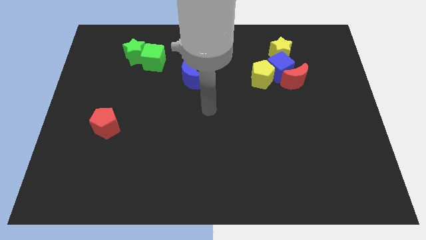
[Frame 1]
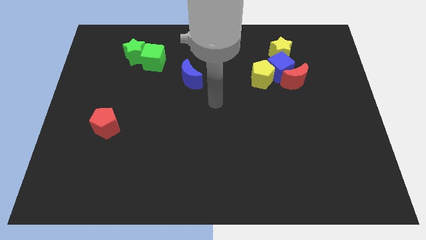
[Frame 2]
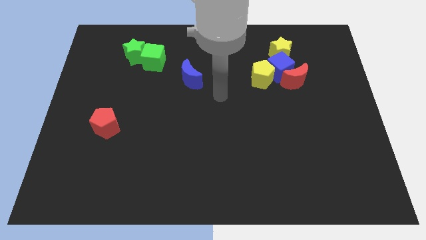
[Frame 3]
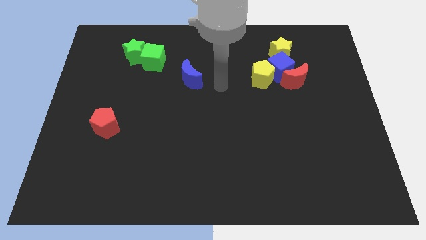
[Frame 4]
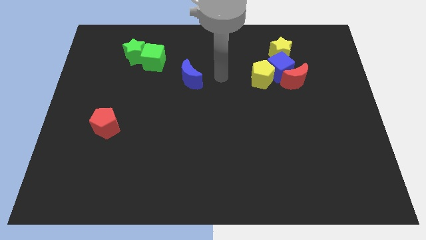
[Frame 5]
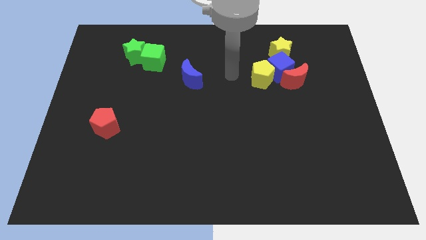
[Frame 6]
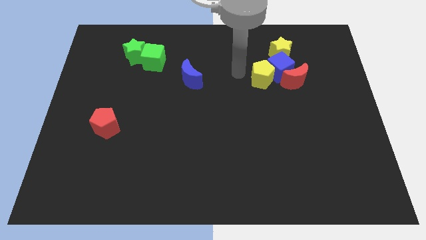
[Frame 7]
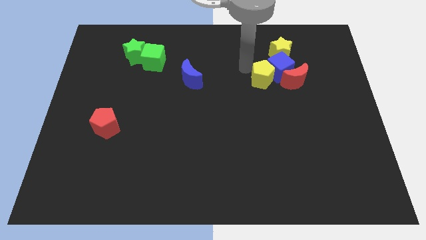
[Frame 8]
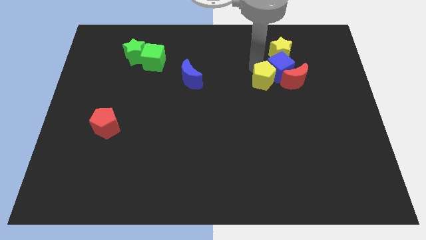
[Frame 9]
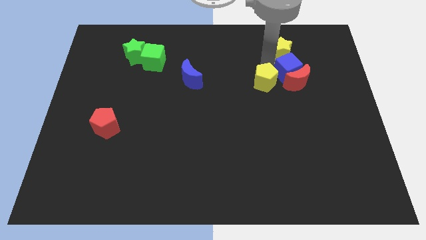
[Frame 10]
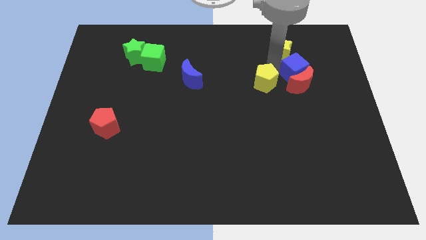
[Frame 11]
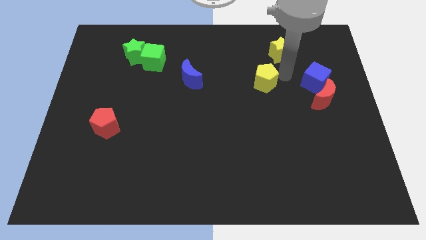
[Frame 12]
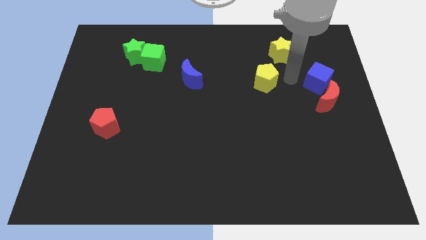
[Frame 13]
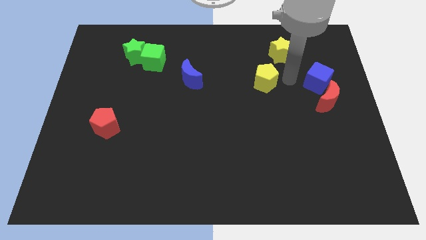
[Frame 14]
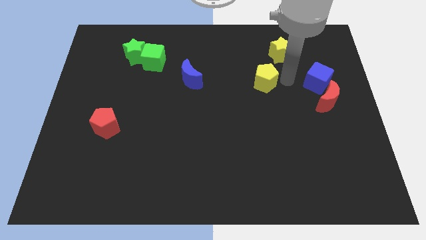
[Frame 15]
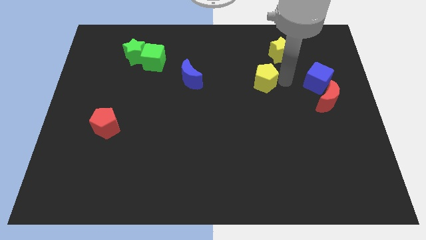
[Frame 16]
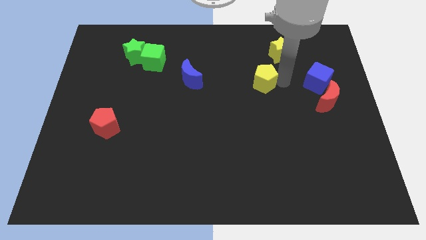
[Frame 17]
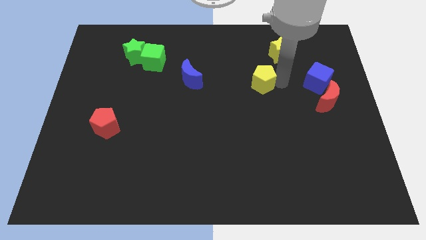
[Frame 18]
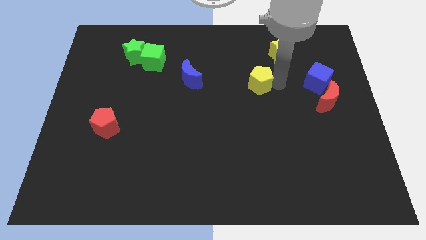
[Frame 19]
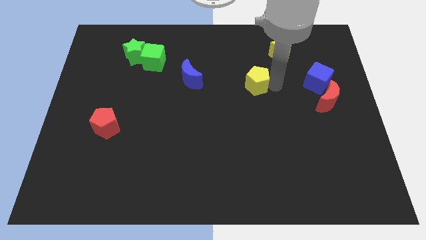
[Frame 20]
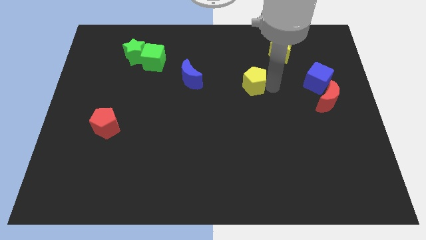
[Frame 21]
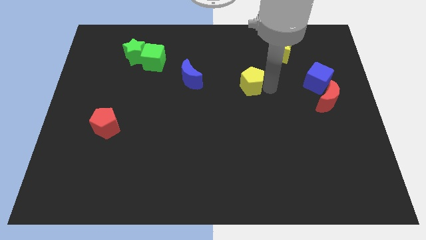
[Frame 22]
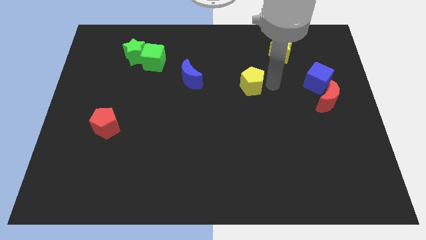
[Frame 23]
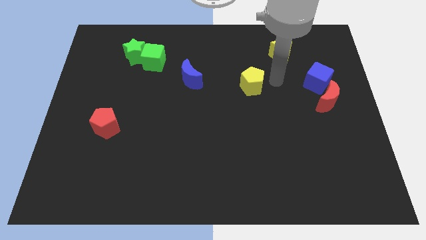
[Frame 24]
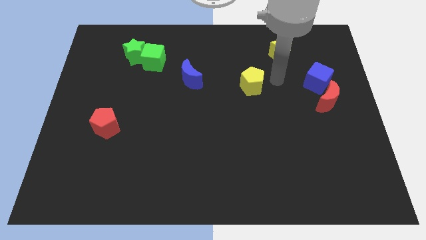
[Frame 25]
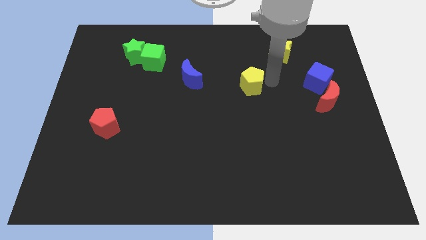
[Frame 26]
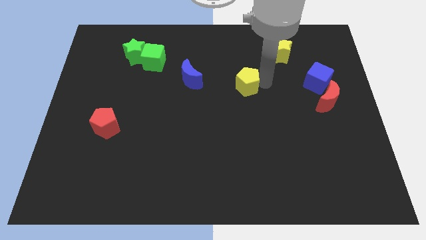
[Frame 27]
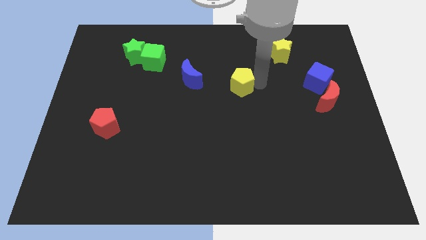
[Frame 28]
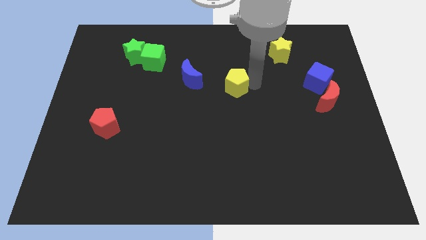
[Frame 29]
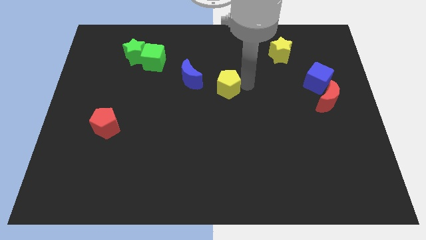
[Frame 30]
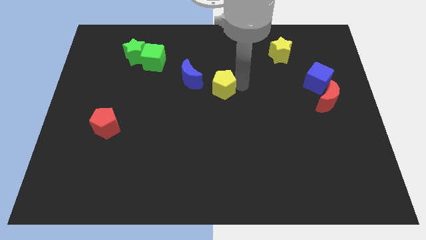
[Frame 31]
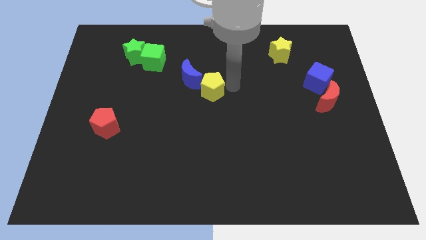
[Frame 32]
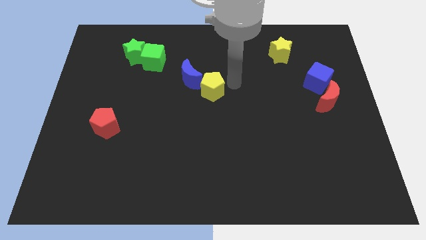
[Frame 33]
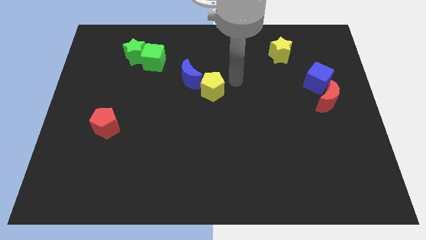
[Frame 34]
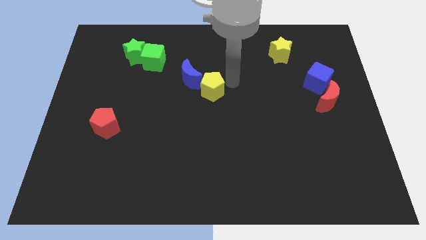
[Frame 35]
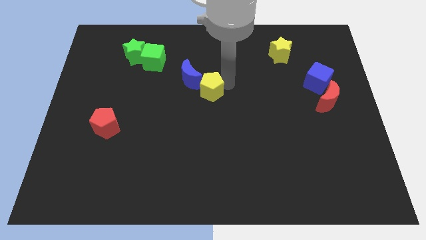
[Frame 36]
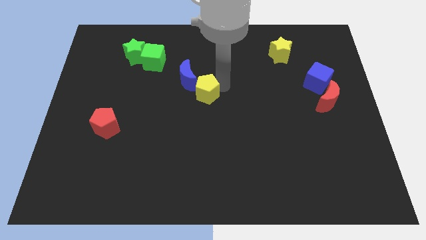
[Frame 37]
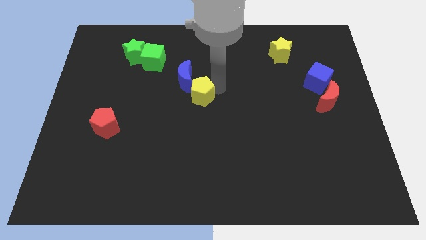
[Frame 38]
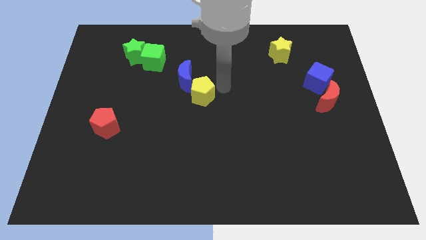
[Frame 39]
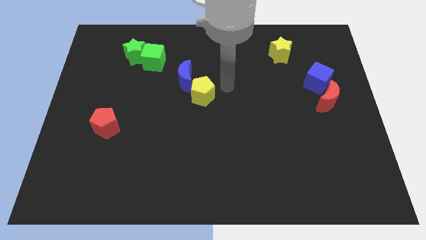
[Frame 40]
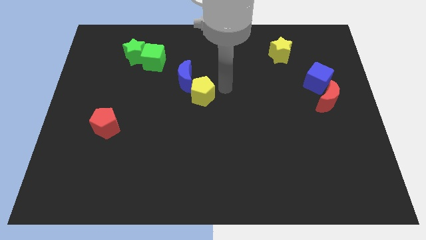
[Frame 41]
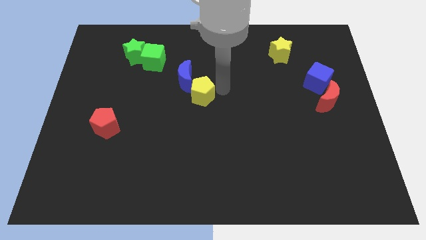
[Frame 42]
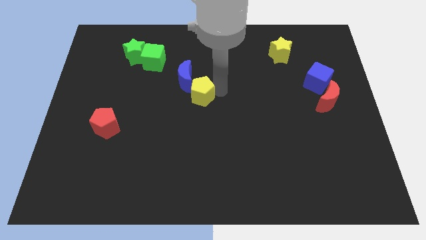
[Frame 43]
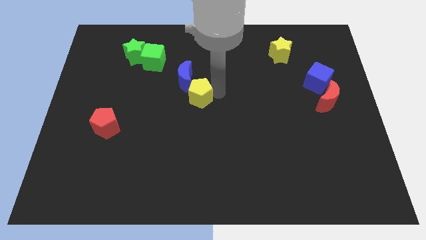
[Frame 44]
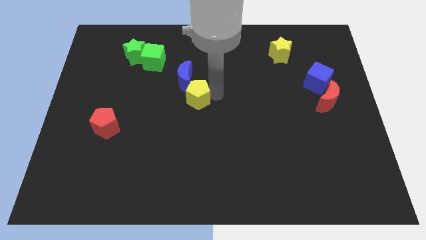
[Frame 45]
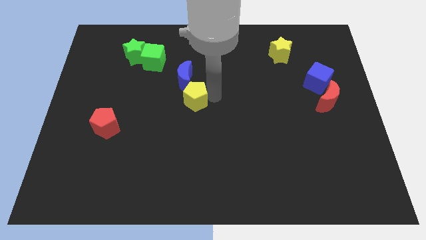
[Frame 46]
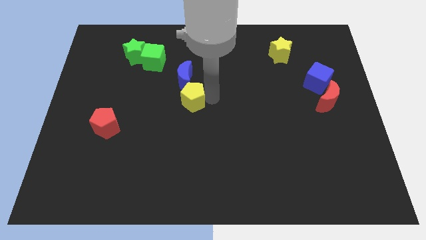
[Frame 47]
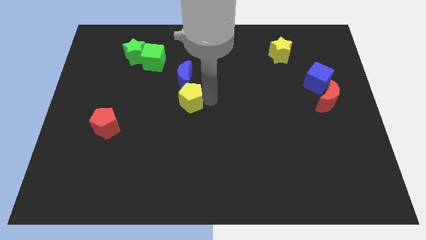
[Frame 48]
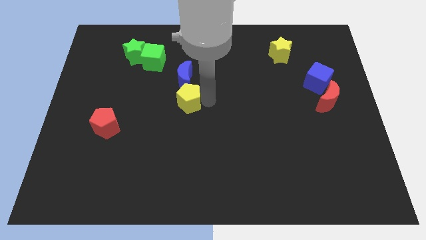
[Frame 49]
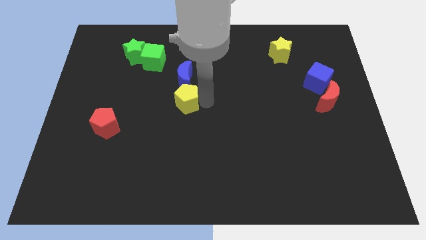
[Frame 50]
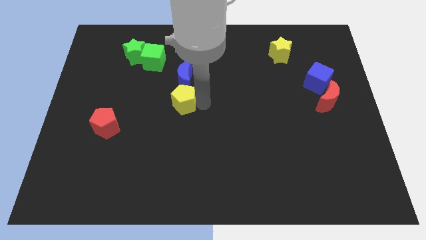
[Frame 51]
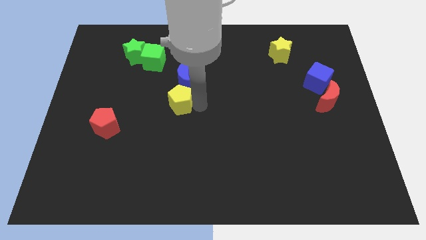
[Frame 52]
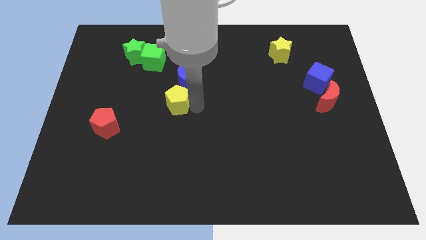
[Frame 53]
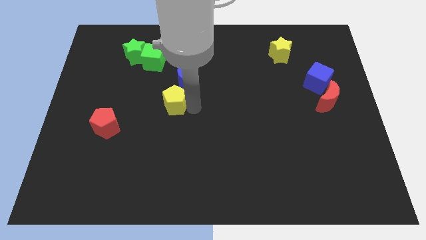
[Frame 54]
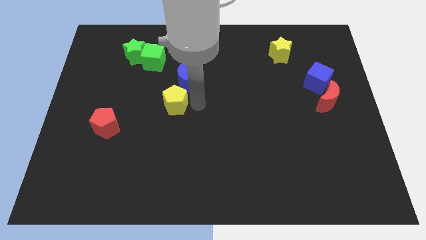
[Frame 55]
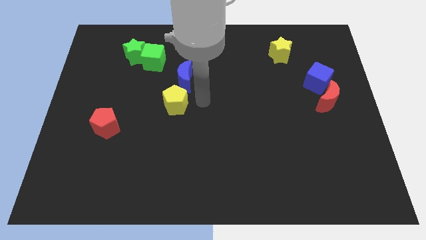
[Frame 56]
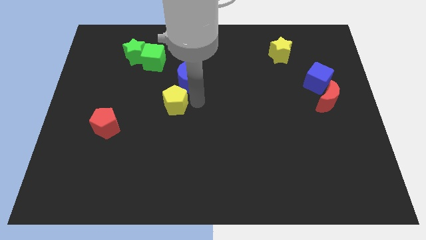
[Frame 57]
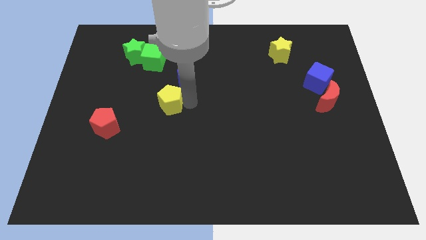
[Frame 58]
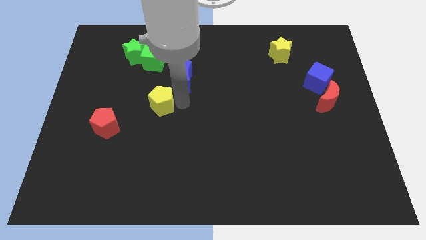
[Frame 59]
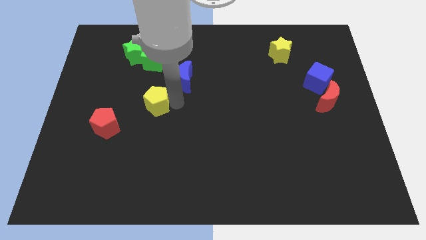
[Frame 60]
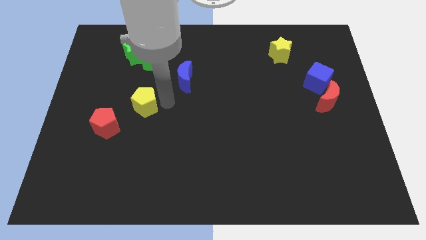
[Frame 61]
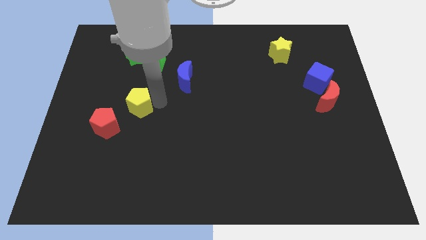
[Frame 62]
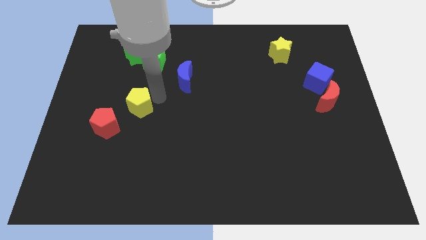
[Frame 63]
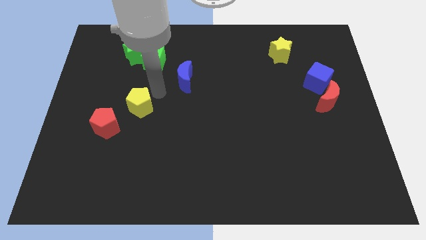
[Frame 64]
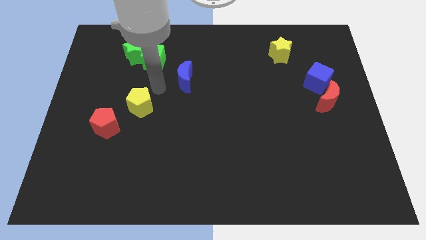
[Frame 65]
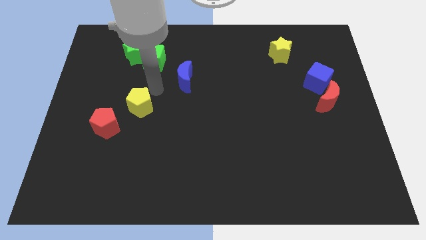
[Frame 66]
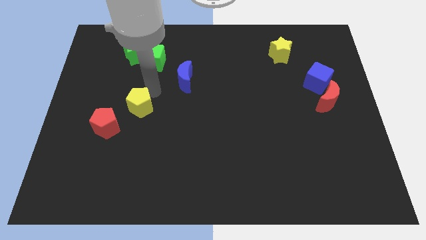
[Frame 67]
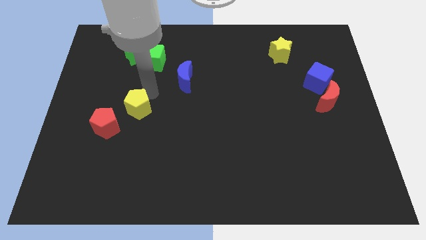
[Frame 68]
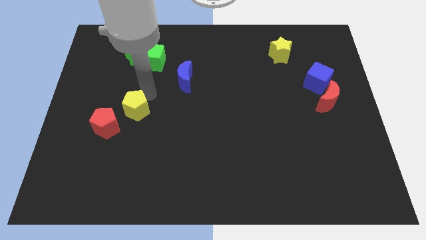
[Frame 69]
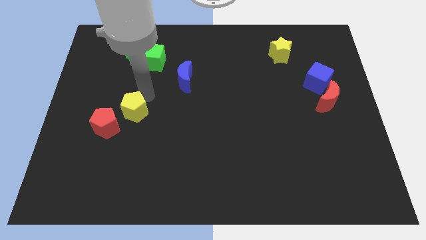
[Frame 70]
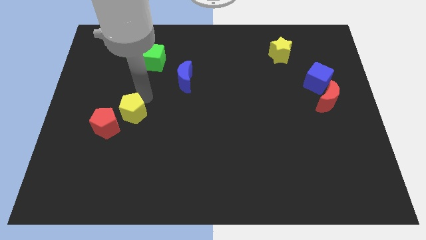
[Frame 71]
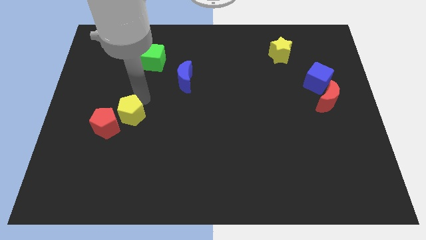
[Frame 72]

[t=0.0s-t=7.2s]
push the yellow pentagon close to the red pentagon

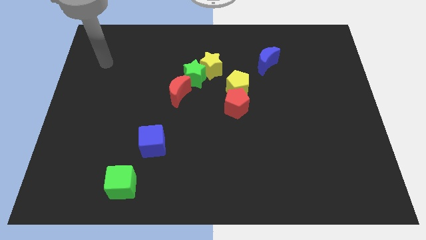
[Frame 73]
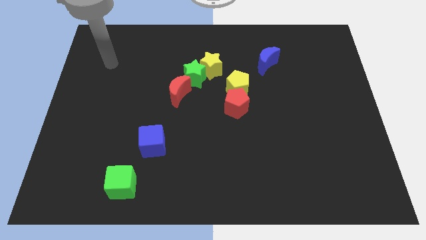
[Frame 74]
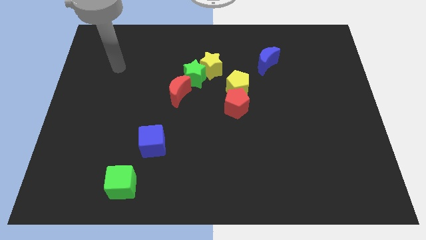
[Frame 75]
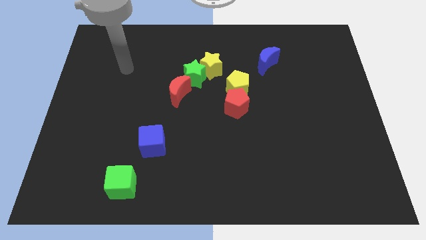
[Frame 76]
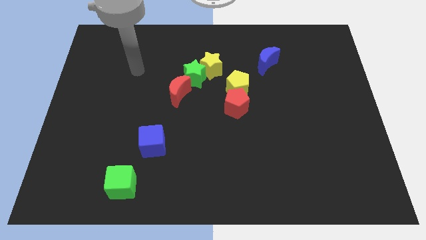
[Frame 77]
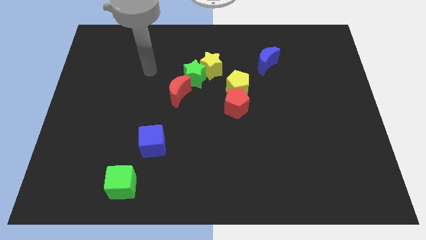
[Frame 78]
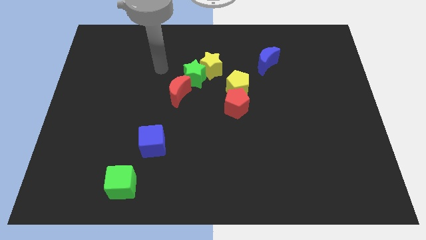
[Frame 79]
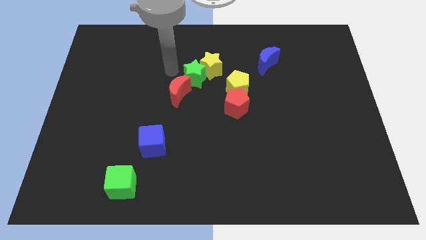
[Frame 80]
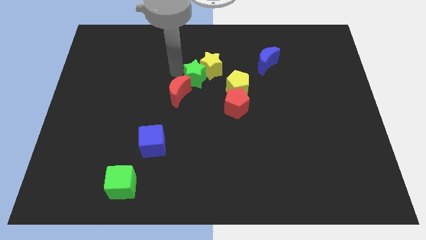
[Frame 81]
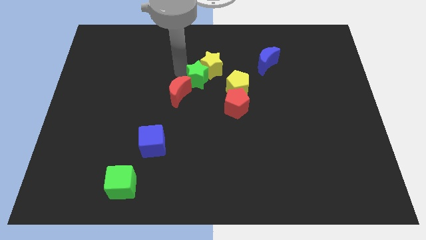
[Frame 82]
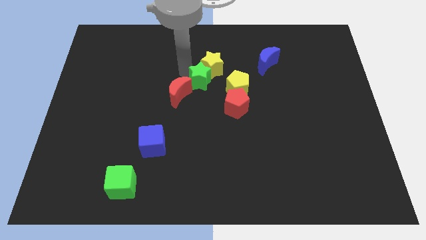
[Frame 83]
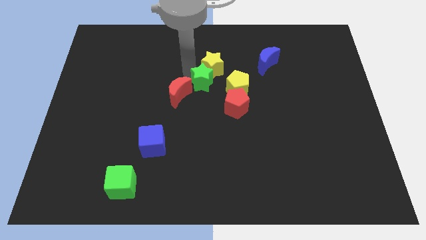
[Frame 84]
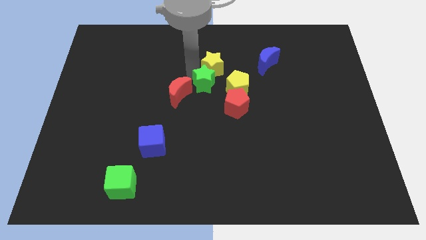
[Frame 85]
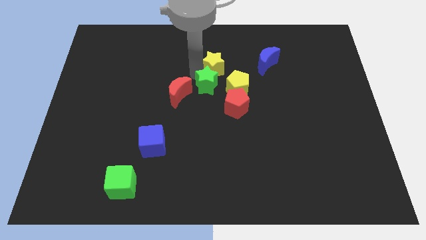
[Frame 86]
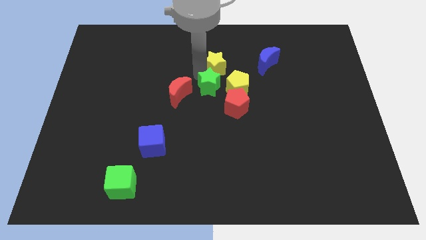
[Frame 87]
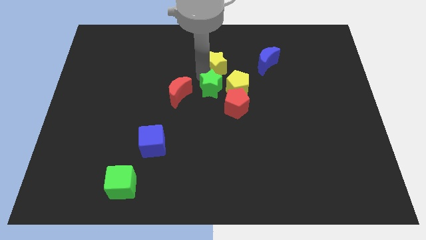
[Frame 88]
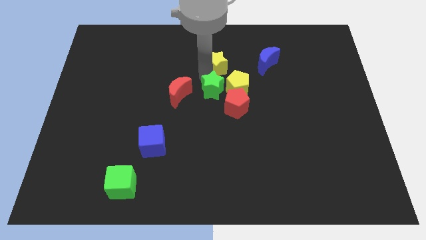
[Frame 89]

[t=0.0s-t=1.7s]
put the green star towards the yellow pentagon
